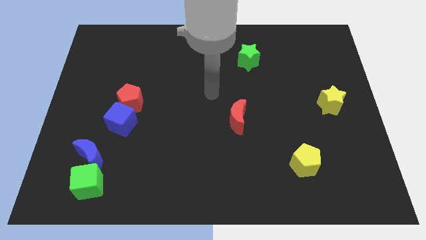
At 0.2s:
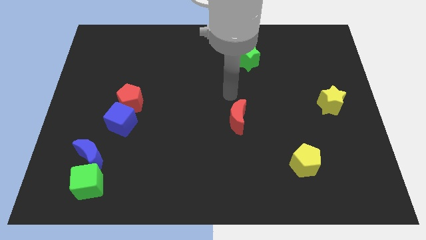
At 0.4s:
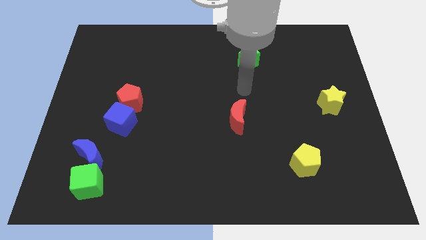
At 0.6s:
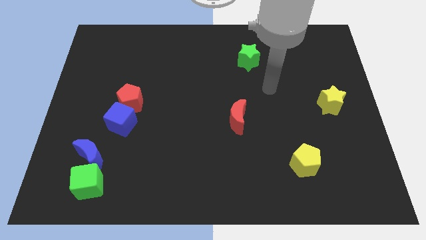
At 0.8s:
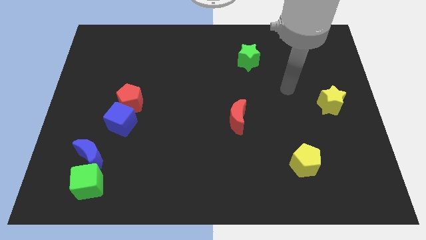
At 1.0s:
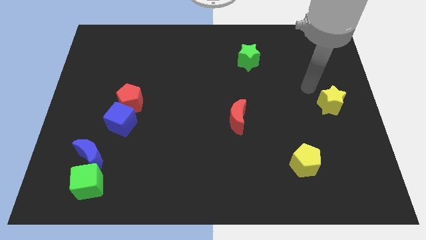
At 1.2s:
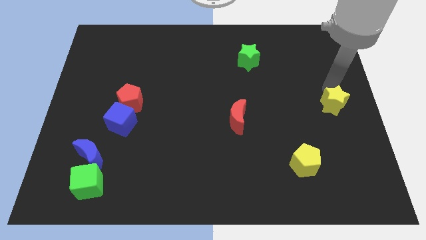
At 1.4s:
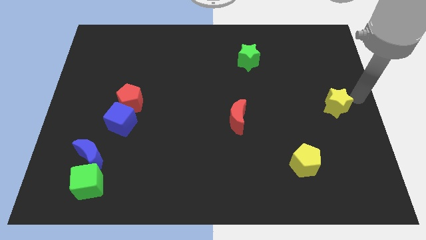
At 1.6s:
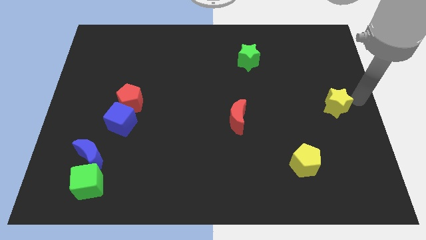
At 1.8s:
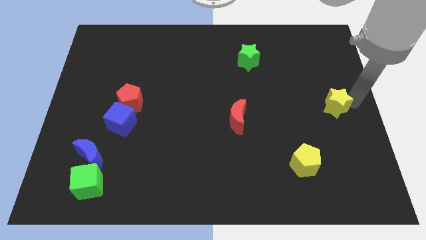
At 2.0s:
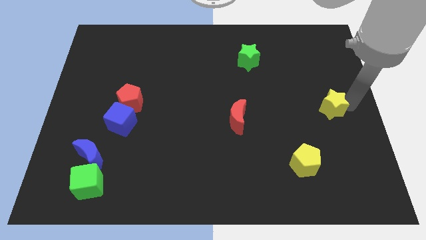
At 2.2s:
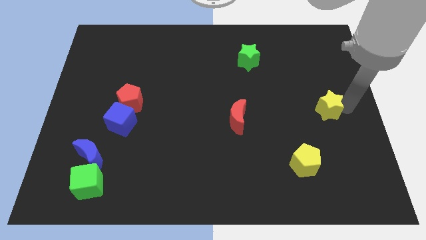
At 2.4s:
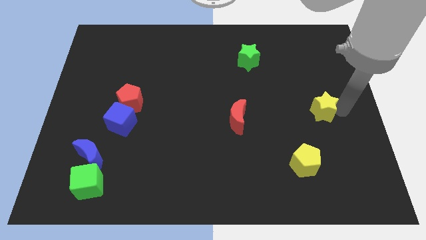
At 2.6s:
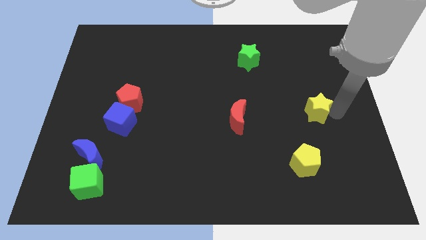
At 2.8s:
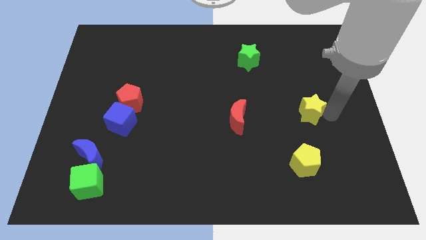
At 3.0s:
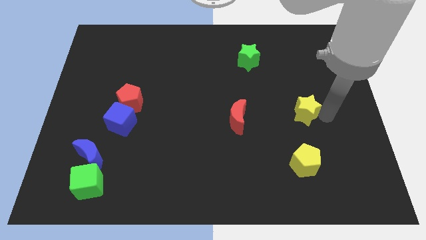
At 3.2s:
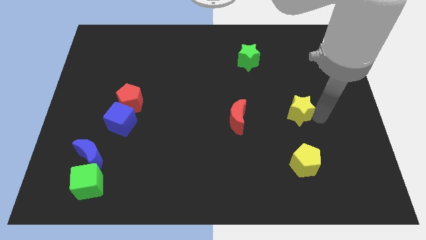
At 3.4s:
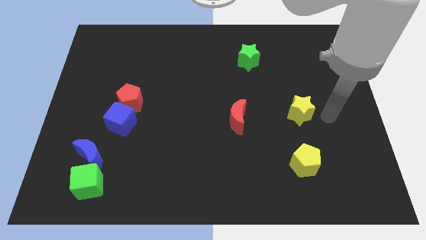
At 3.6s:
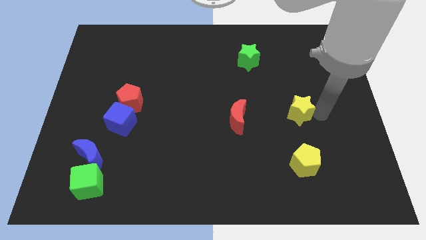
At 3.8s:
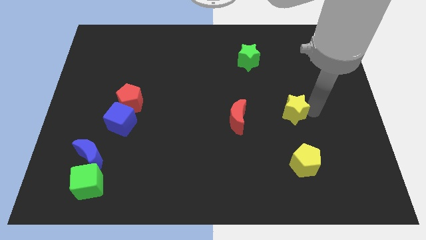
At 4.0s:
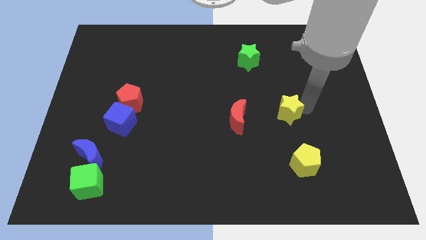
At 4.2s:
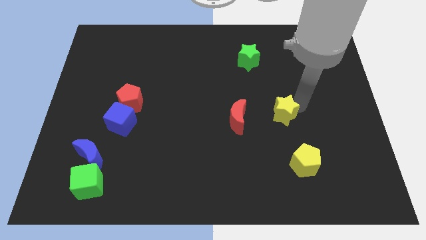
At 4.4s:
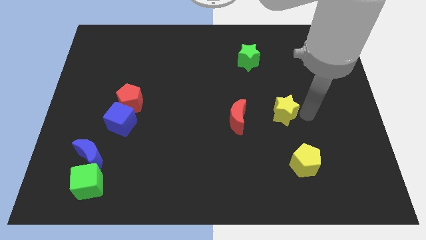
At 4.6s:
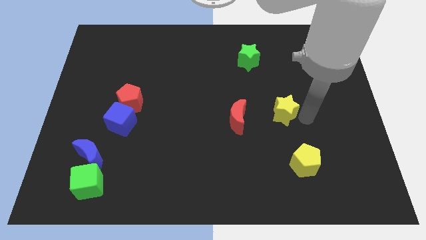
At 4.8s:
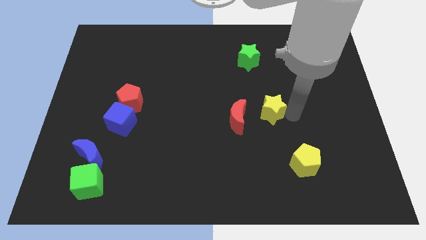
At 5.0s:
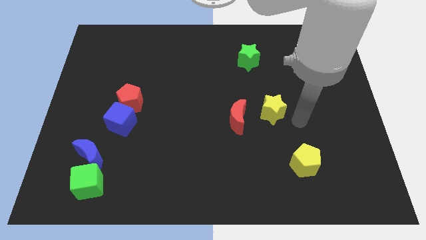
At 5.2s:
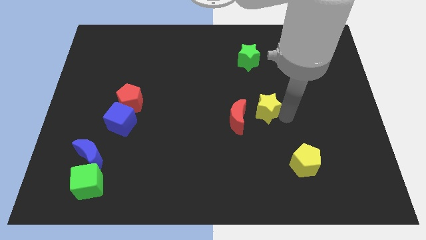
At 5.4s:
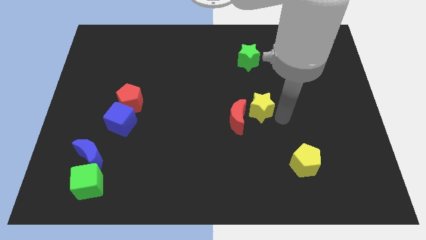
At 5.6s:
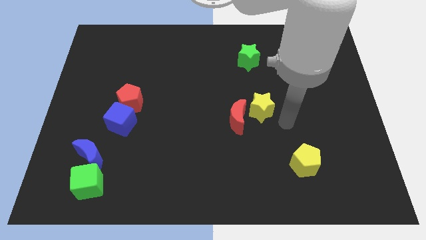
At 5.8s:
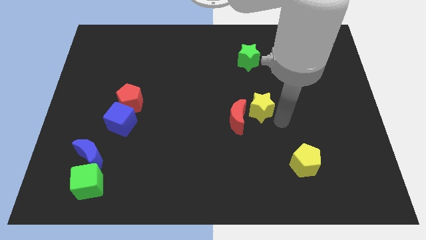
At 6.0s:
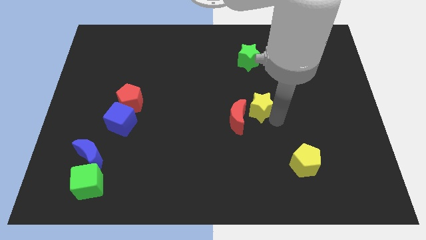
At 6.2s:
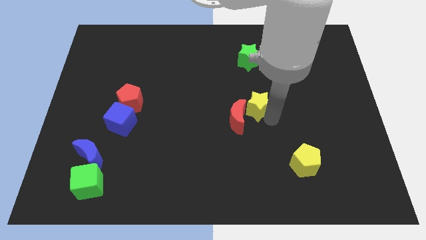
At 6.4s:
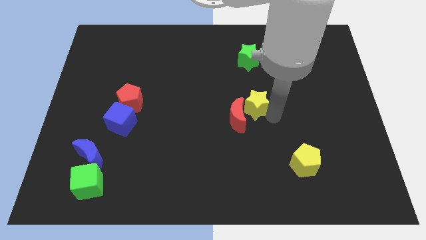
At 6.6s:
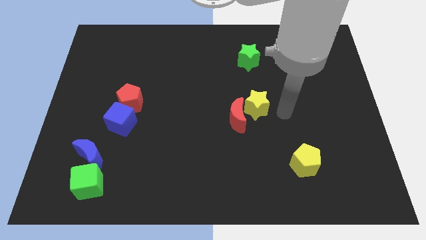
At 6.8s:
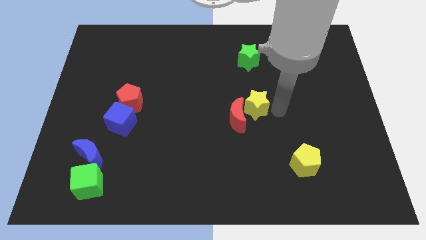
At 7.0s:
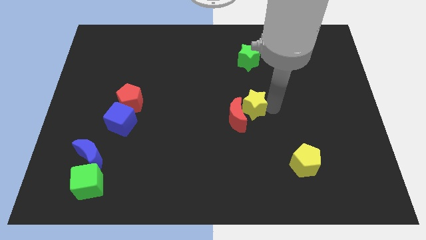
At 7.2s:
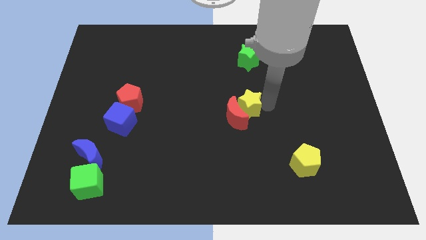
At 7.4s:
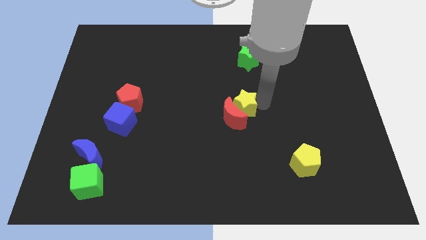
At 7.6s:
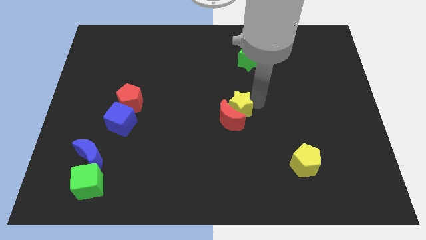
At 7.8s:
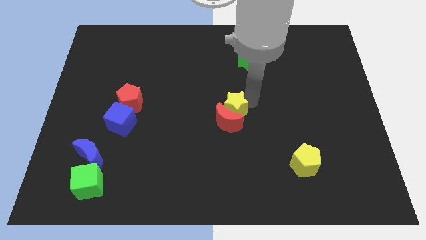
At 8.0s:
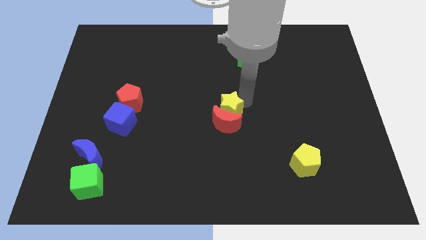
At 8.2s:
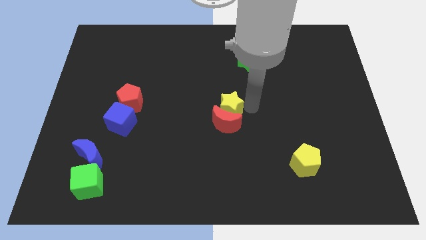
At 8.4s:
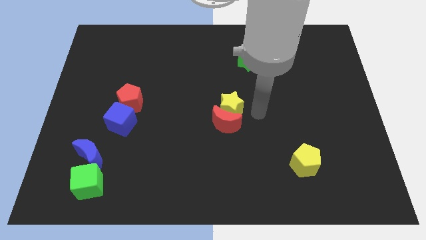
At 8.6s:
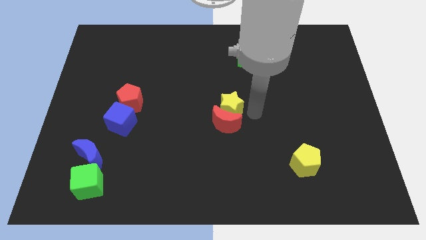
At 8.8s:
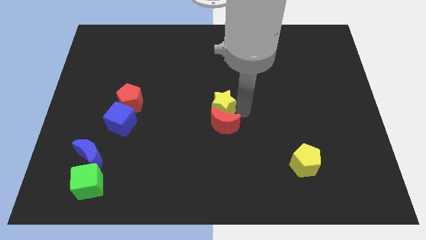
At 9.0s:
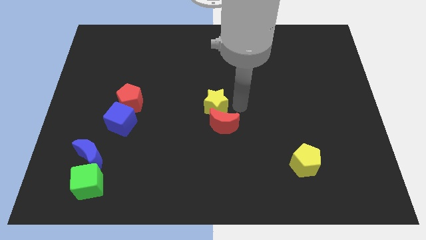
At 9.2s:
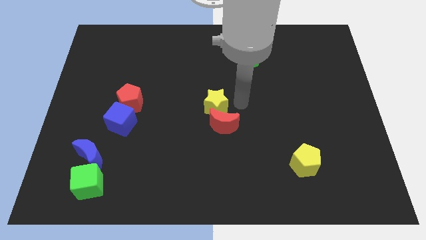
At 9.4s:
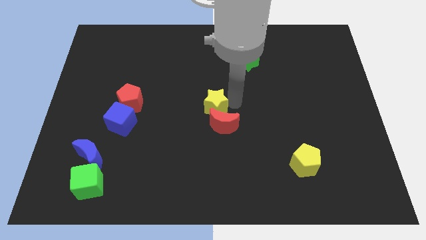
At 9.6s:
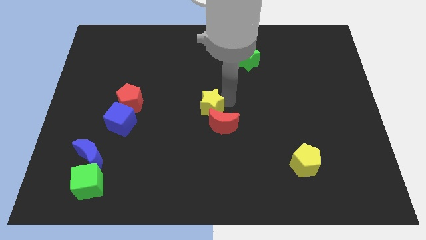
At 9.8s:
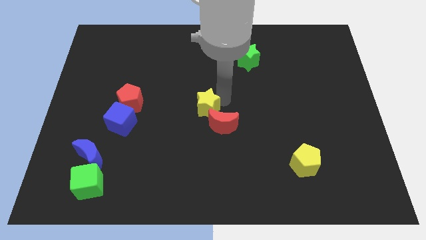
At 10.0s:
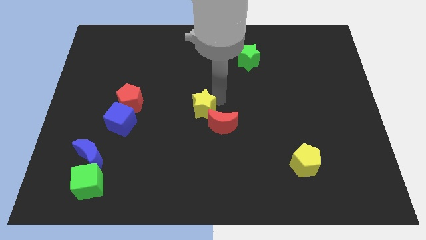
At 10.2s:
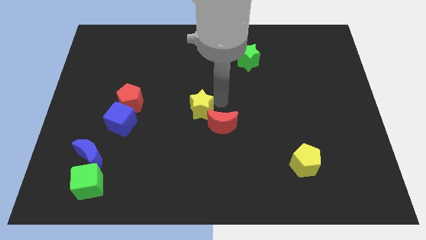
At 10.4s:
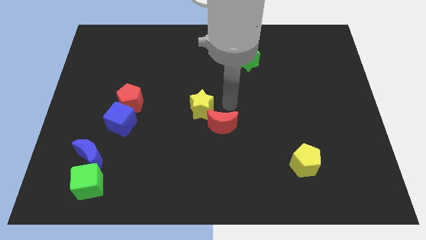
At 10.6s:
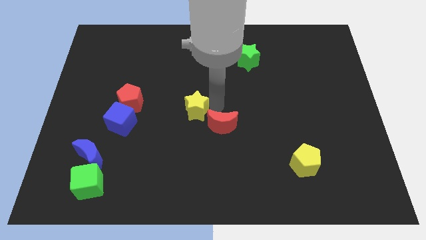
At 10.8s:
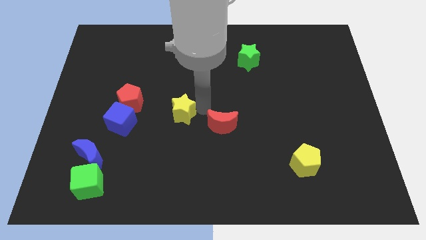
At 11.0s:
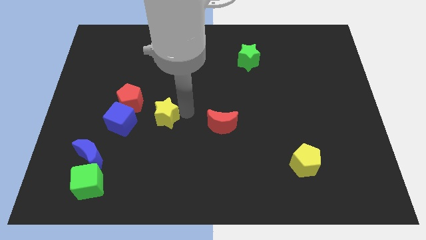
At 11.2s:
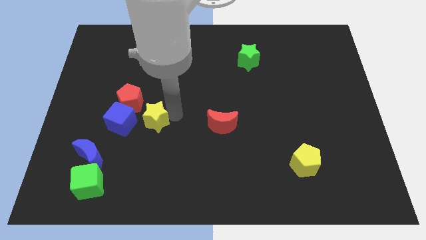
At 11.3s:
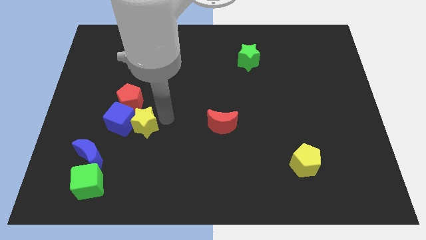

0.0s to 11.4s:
slide the yellow star to the blue cube

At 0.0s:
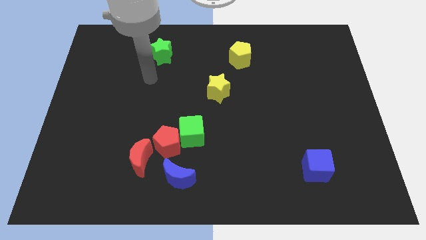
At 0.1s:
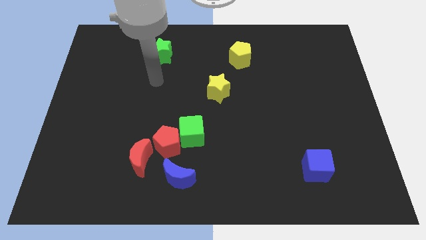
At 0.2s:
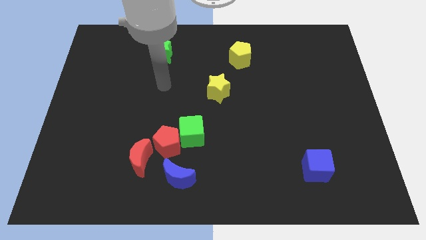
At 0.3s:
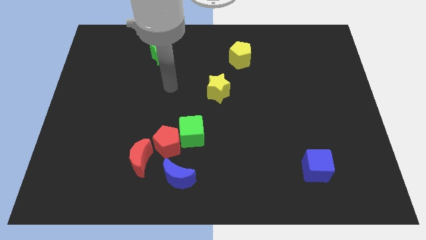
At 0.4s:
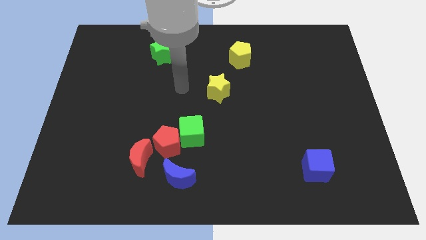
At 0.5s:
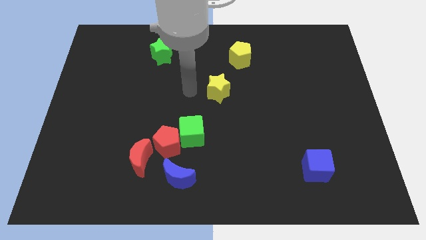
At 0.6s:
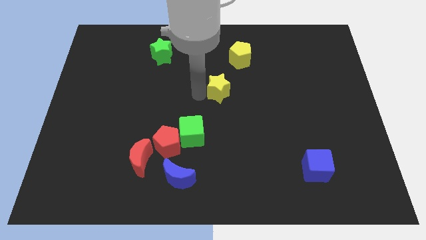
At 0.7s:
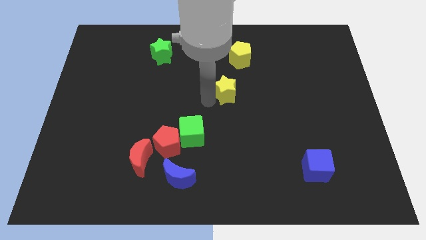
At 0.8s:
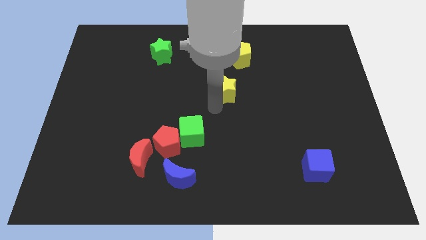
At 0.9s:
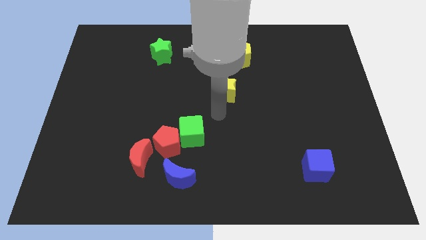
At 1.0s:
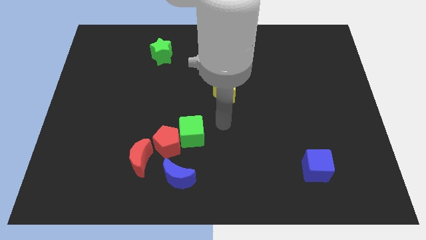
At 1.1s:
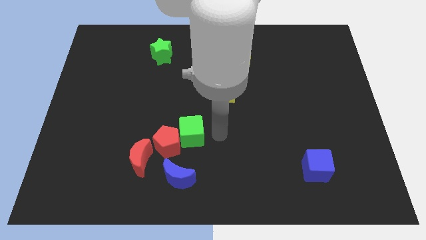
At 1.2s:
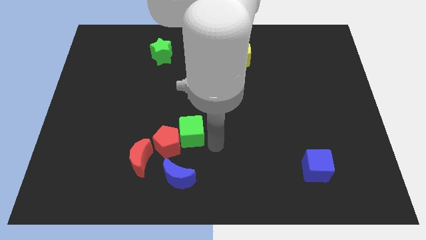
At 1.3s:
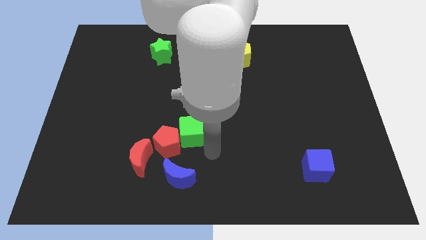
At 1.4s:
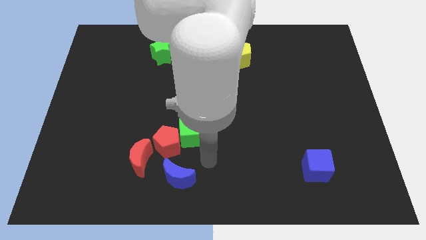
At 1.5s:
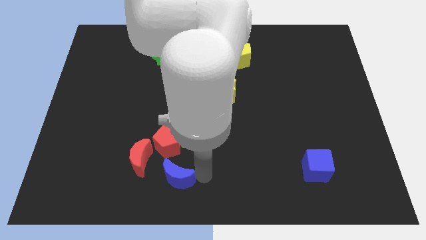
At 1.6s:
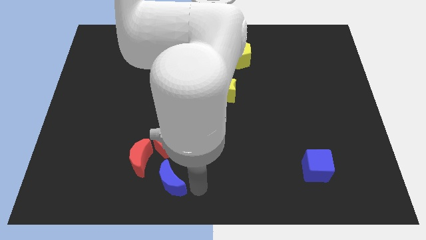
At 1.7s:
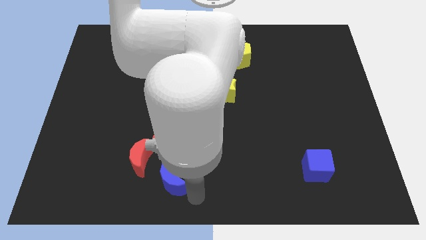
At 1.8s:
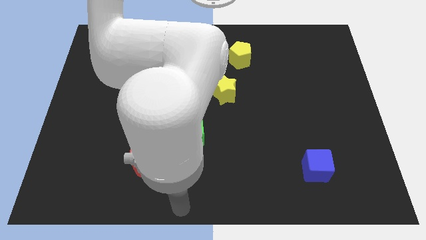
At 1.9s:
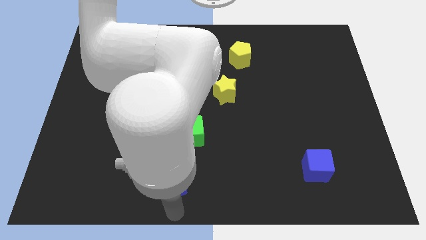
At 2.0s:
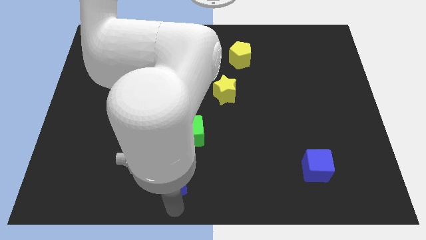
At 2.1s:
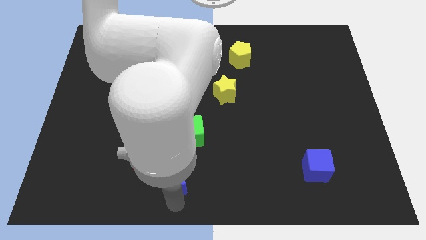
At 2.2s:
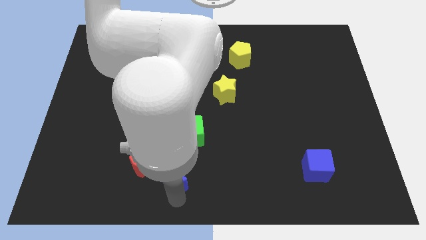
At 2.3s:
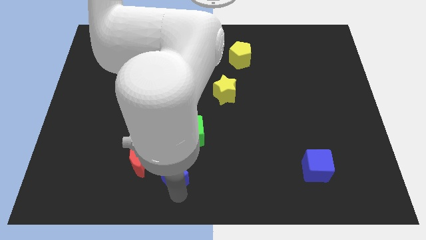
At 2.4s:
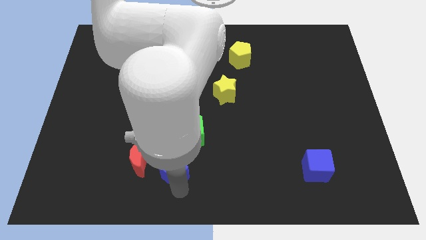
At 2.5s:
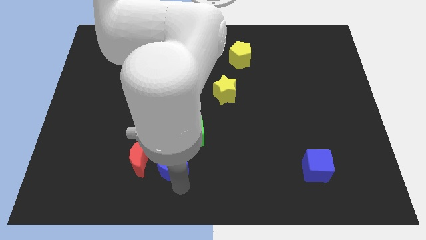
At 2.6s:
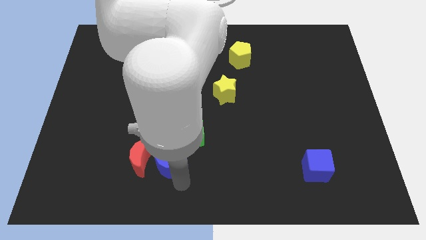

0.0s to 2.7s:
put the blue moon next to the red pentagon
